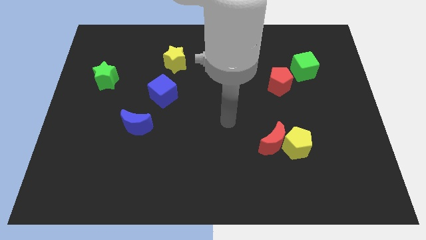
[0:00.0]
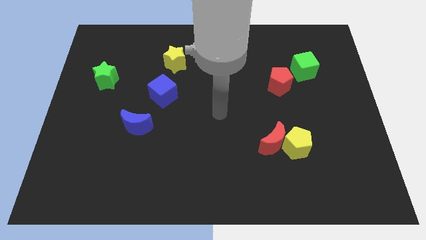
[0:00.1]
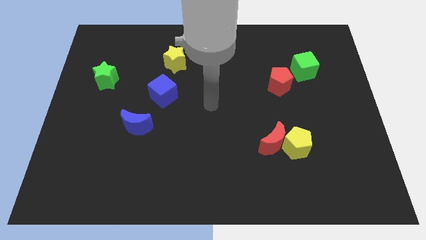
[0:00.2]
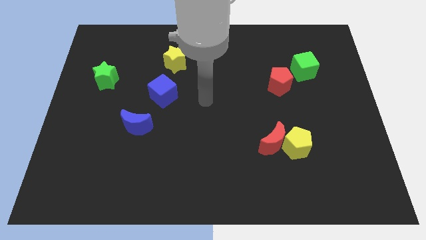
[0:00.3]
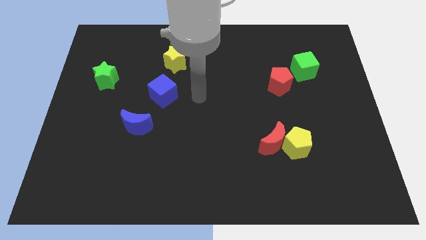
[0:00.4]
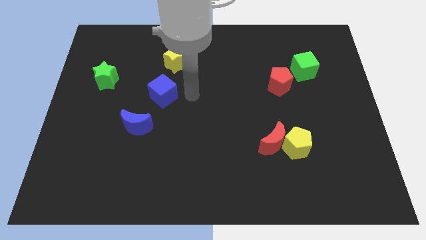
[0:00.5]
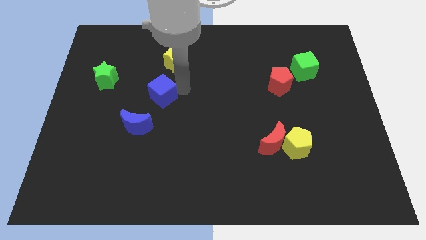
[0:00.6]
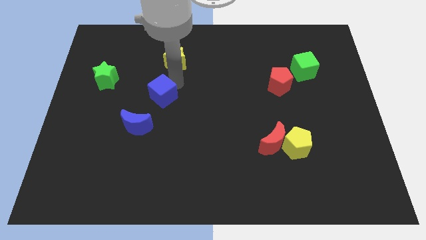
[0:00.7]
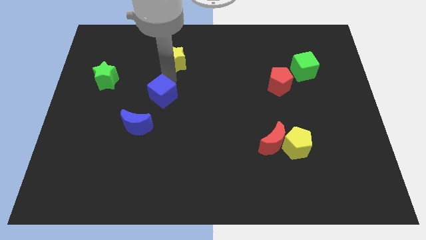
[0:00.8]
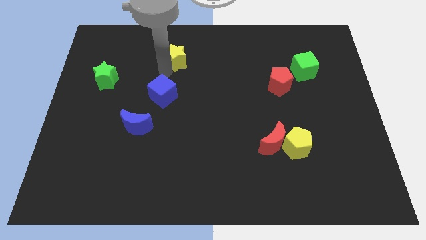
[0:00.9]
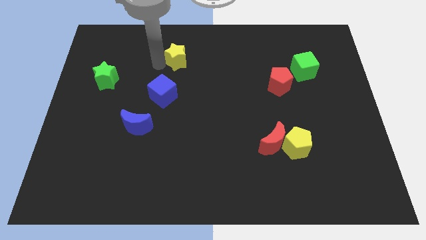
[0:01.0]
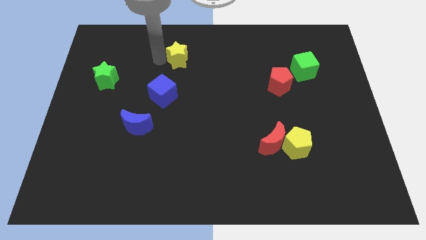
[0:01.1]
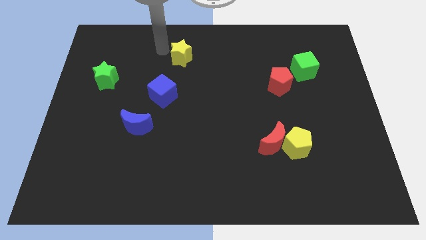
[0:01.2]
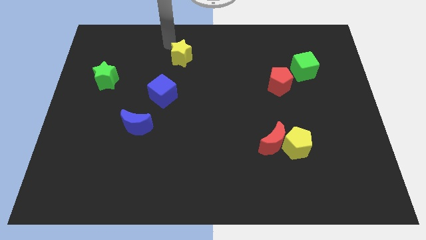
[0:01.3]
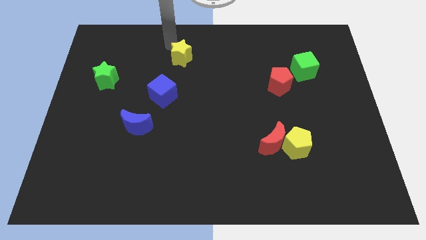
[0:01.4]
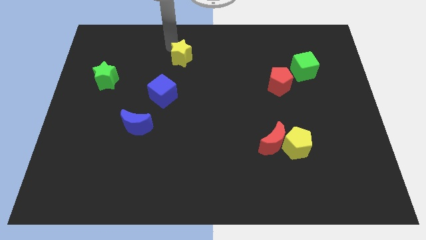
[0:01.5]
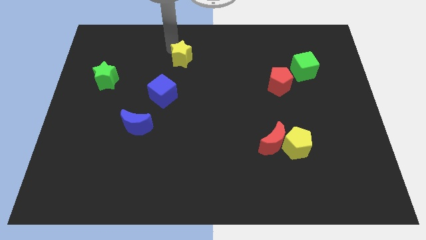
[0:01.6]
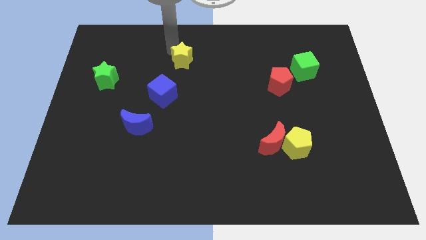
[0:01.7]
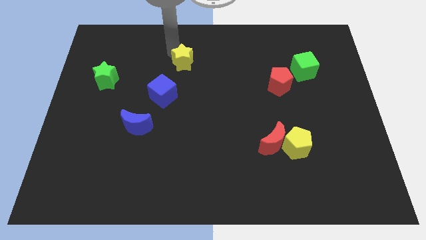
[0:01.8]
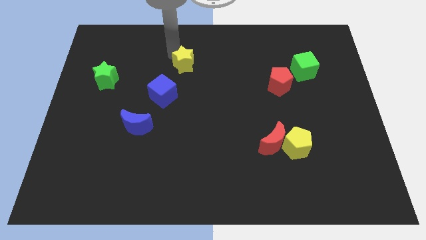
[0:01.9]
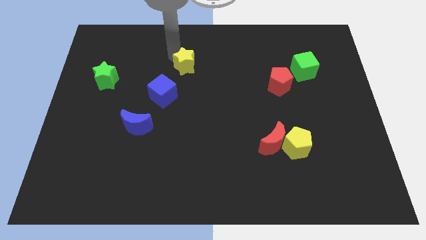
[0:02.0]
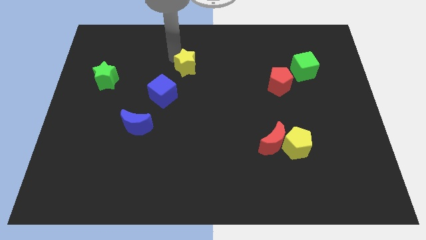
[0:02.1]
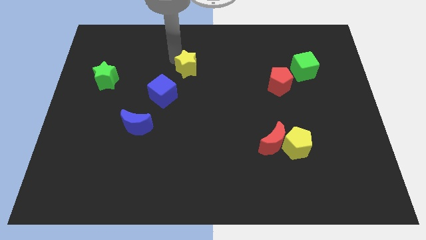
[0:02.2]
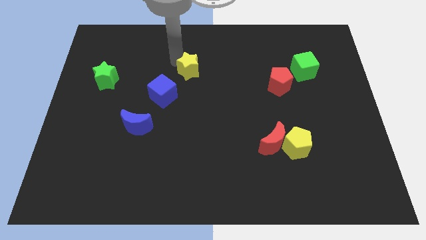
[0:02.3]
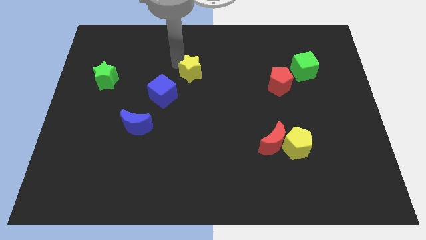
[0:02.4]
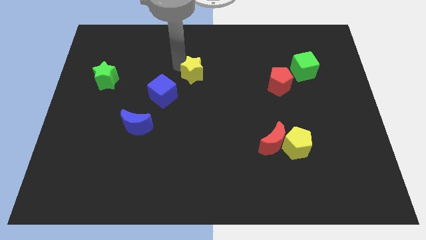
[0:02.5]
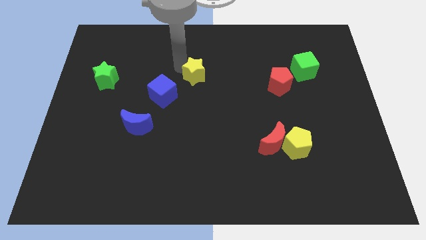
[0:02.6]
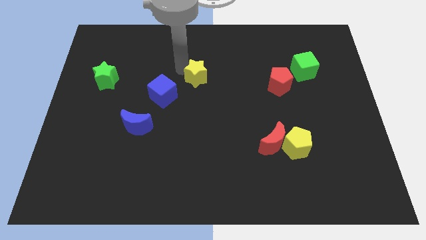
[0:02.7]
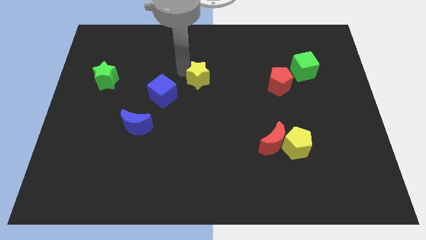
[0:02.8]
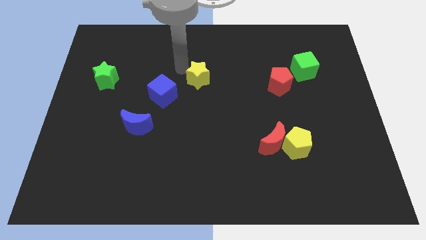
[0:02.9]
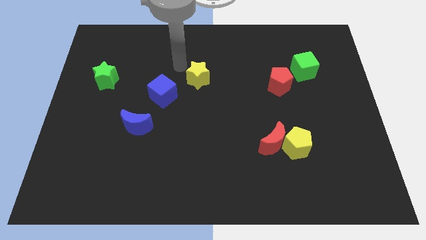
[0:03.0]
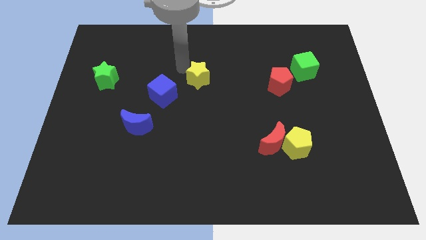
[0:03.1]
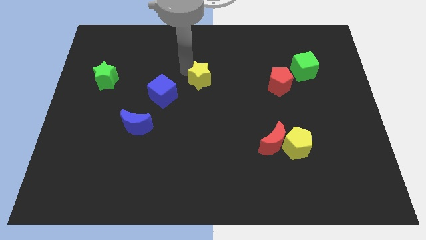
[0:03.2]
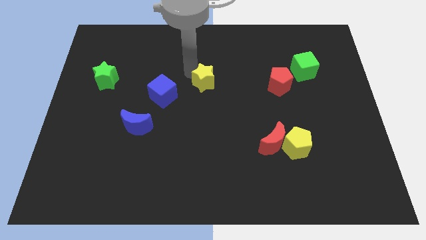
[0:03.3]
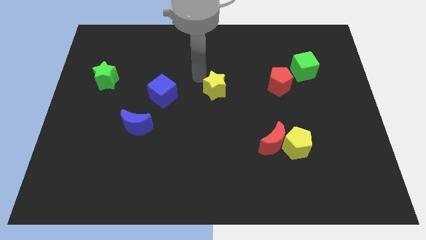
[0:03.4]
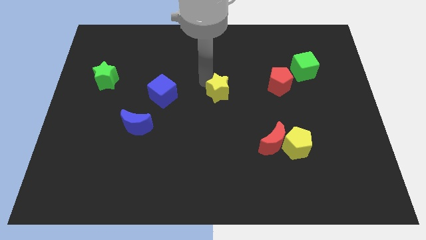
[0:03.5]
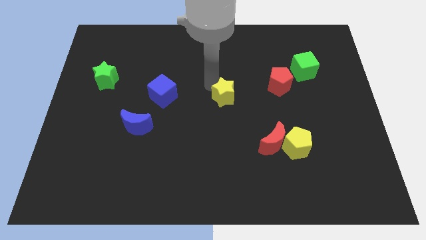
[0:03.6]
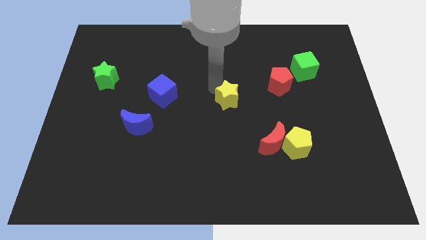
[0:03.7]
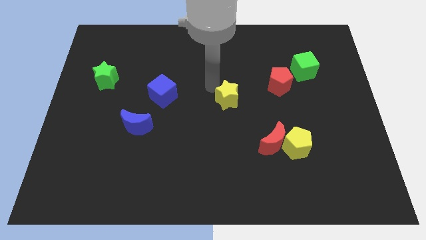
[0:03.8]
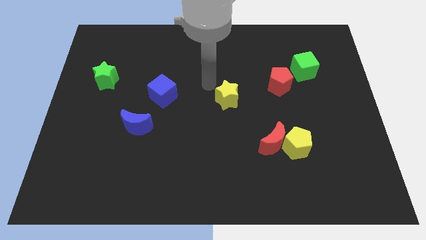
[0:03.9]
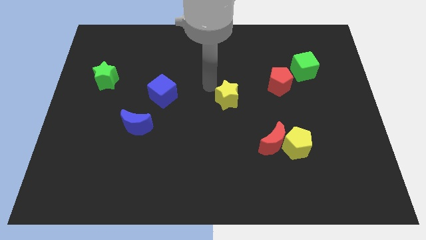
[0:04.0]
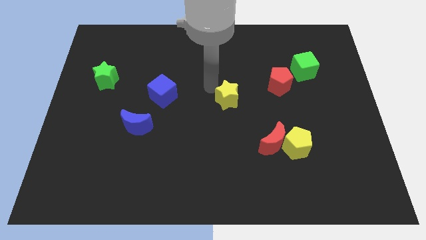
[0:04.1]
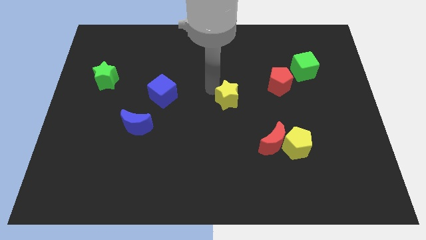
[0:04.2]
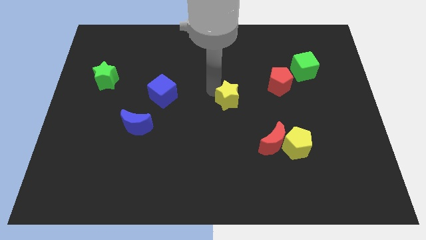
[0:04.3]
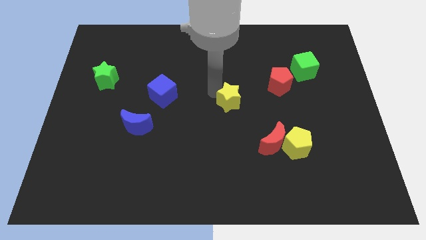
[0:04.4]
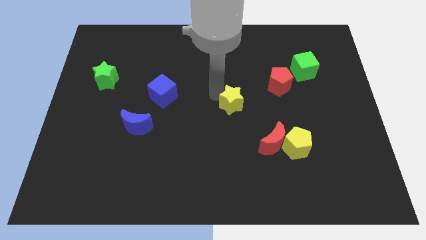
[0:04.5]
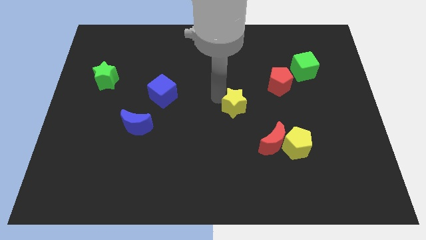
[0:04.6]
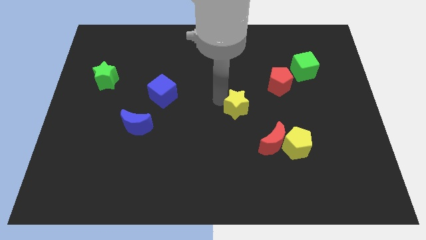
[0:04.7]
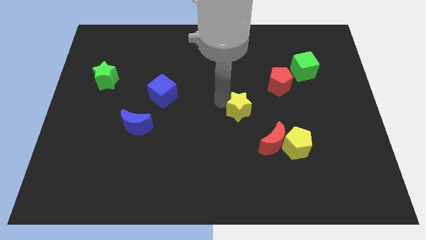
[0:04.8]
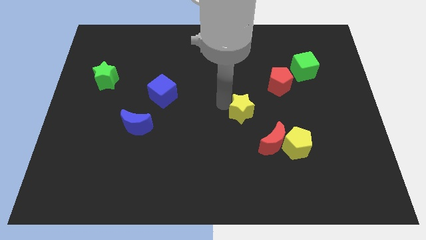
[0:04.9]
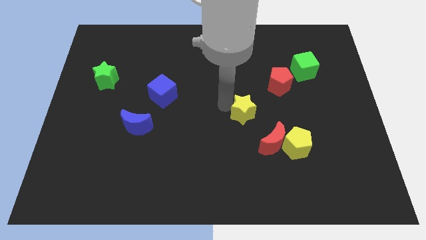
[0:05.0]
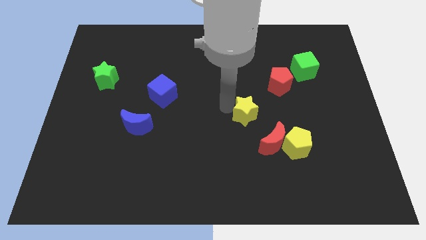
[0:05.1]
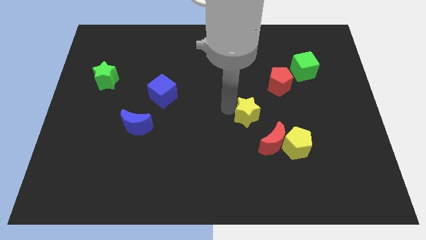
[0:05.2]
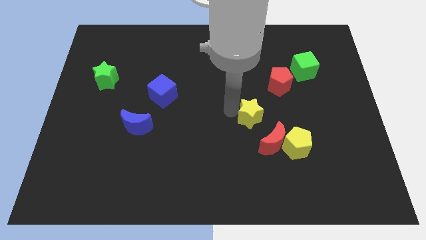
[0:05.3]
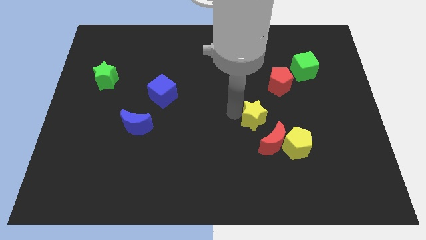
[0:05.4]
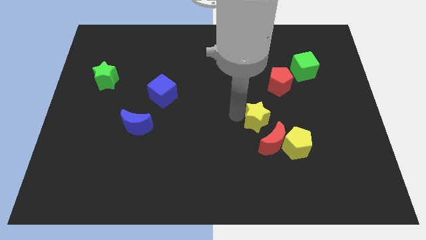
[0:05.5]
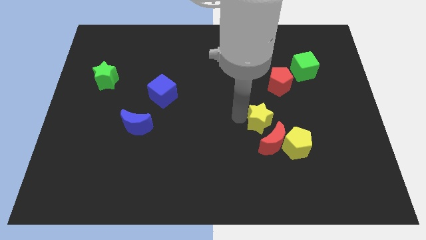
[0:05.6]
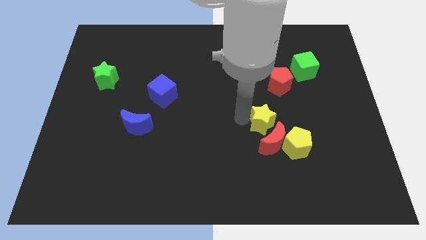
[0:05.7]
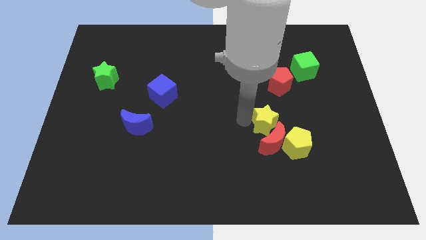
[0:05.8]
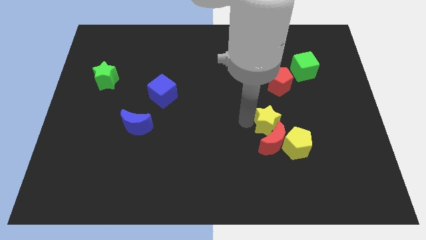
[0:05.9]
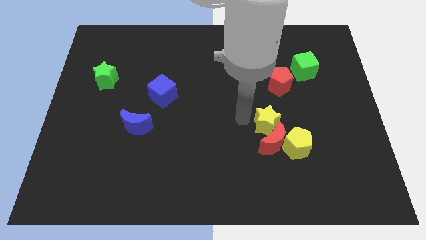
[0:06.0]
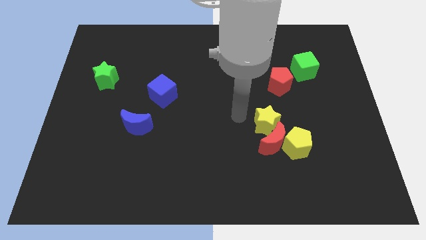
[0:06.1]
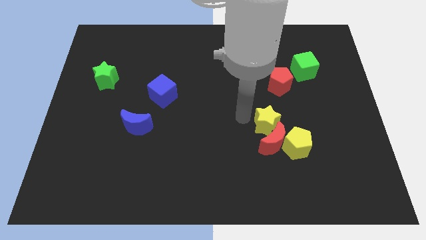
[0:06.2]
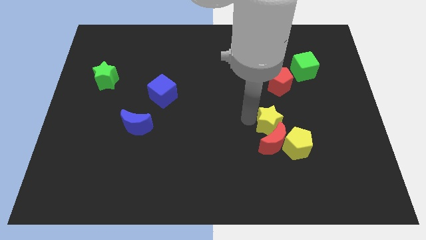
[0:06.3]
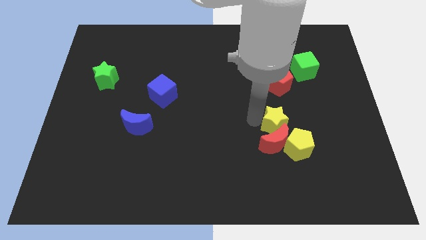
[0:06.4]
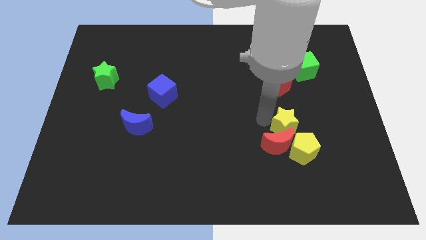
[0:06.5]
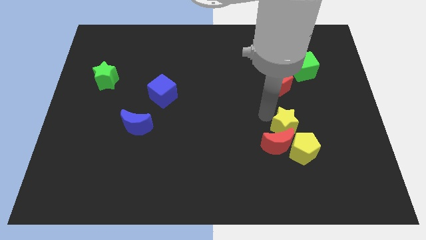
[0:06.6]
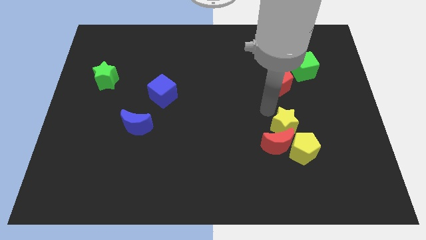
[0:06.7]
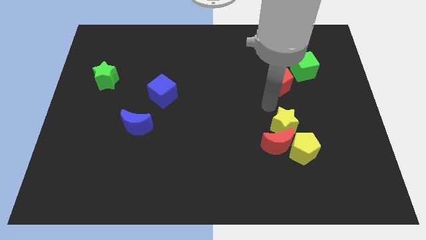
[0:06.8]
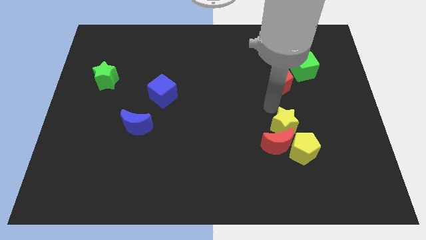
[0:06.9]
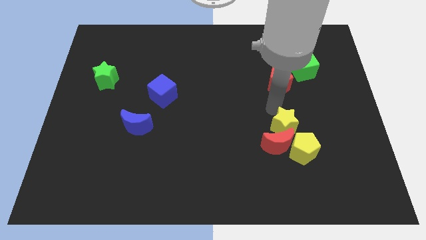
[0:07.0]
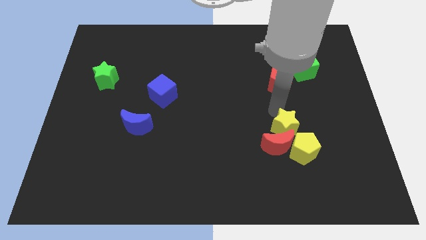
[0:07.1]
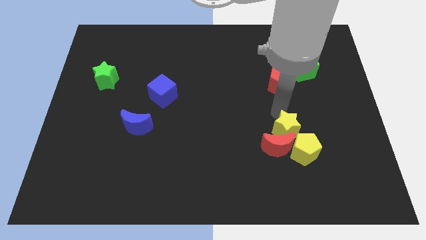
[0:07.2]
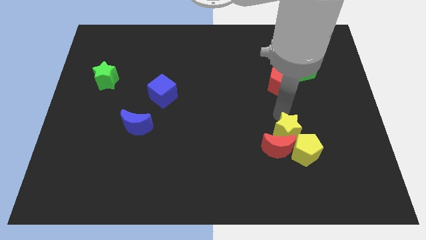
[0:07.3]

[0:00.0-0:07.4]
move the yellow star towards the yellow pentagon
